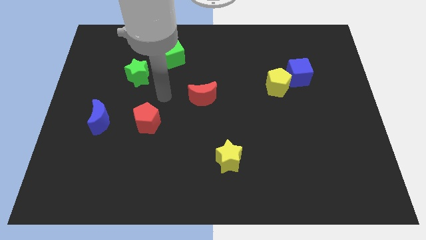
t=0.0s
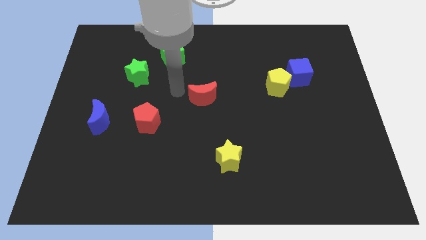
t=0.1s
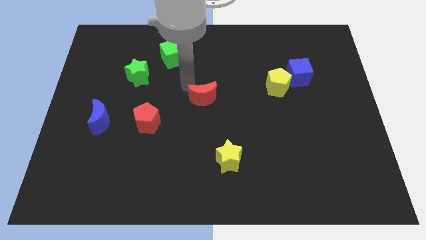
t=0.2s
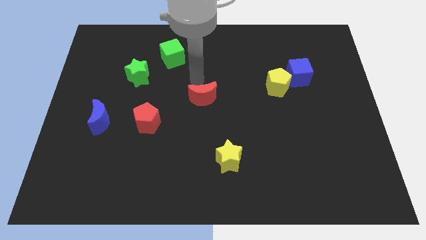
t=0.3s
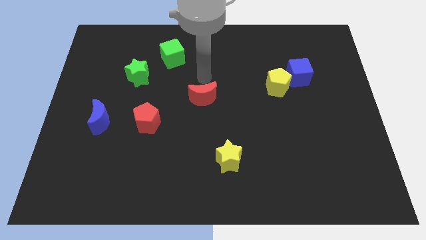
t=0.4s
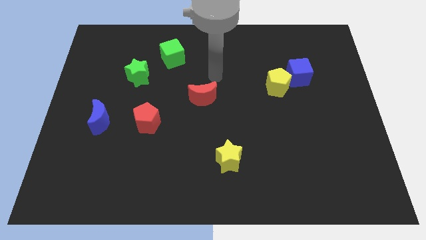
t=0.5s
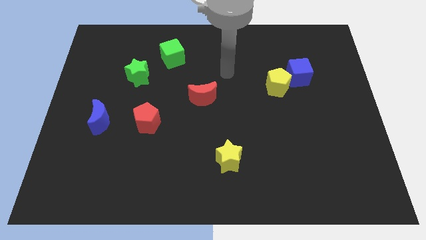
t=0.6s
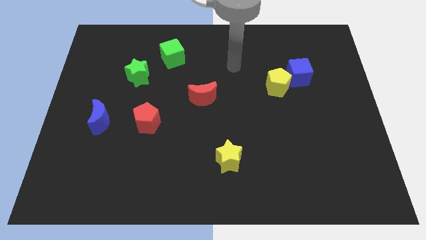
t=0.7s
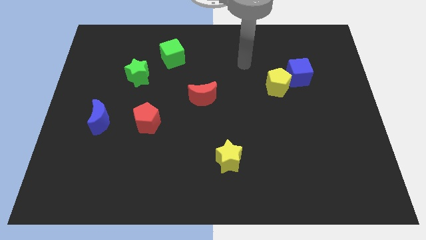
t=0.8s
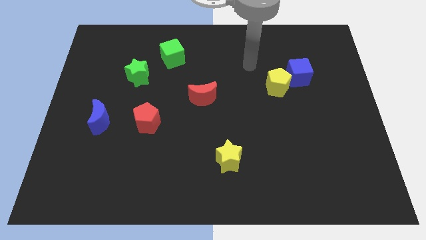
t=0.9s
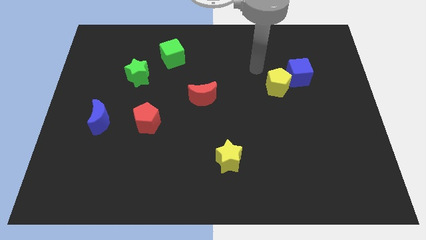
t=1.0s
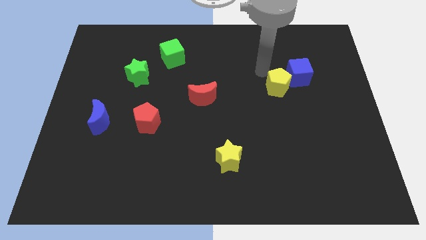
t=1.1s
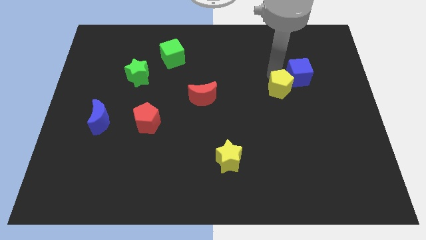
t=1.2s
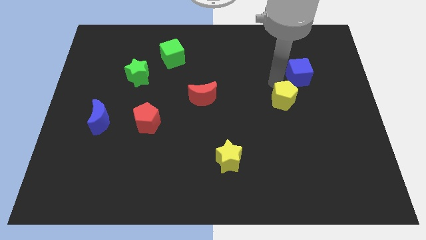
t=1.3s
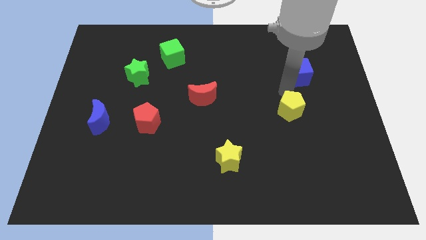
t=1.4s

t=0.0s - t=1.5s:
pull the blue cube apart from the yellow pentagon

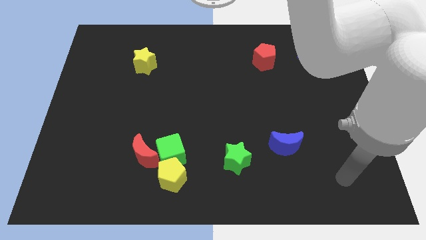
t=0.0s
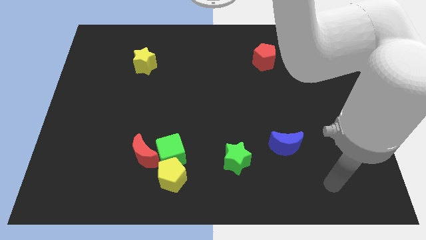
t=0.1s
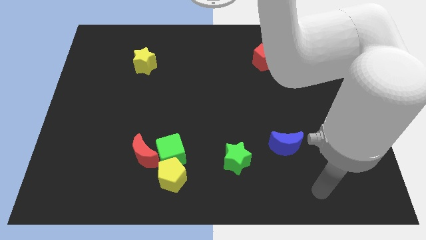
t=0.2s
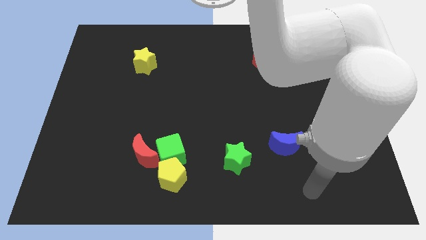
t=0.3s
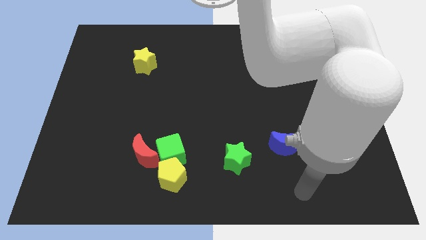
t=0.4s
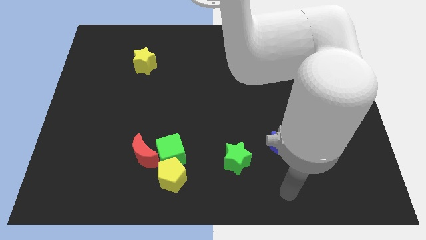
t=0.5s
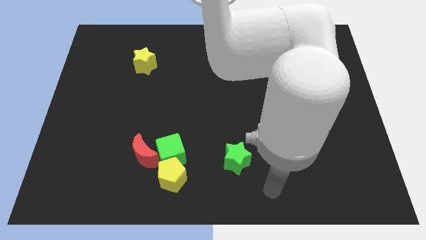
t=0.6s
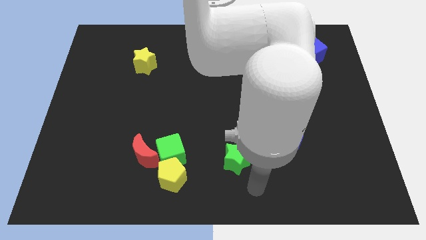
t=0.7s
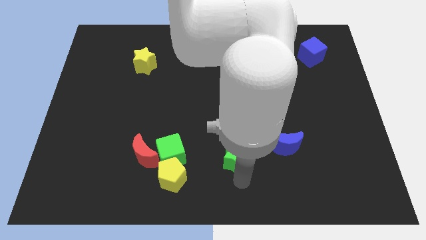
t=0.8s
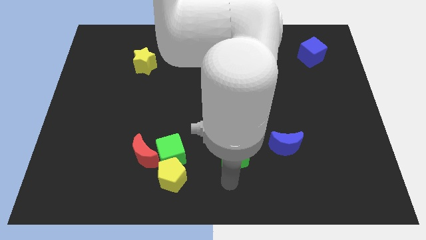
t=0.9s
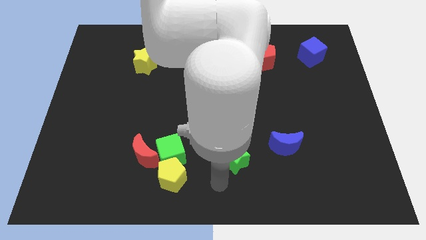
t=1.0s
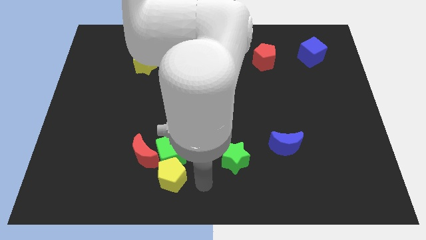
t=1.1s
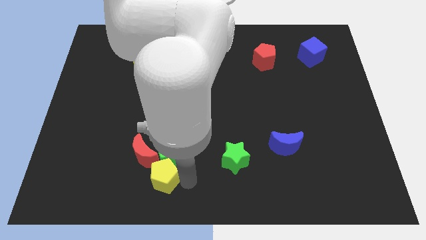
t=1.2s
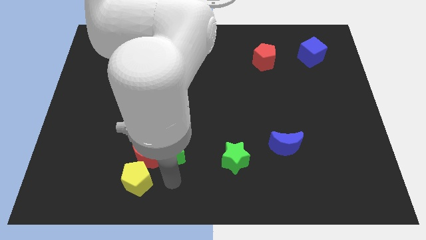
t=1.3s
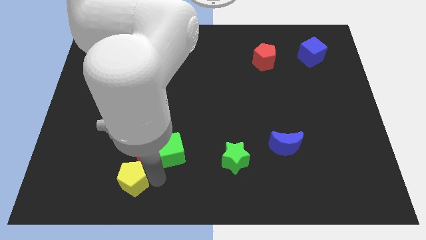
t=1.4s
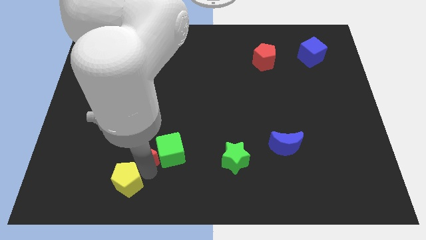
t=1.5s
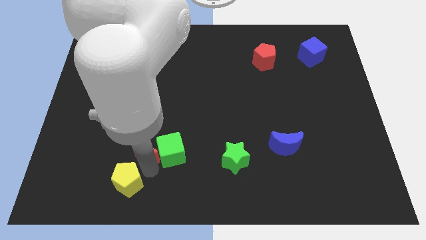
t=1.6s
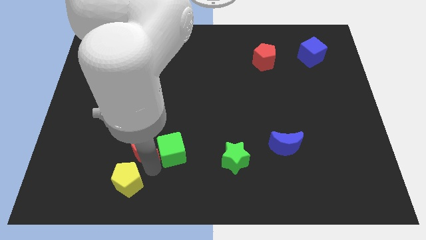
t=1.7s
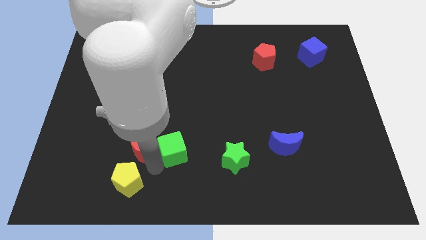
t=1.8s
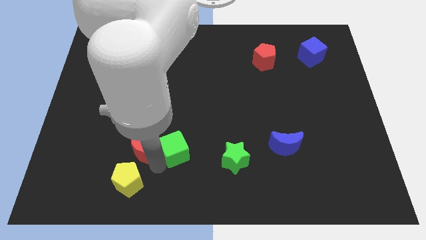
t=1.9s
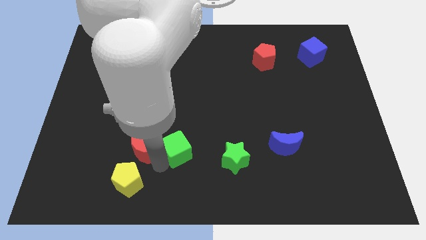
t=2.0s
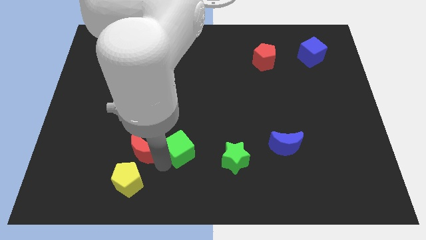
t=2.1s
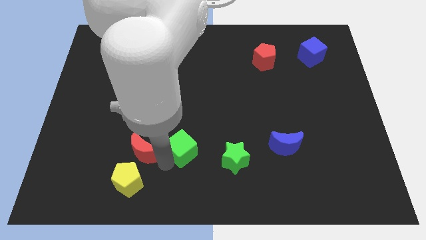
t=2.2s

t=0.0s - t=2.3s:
pull the green cube apart from the yellow pentagon and red moon

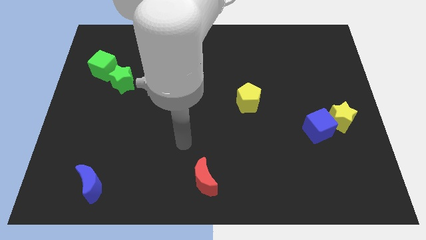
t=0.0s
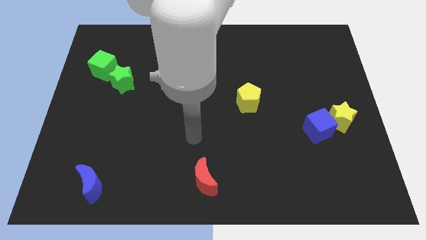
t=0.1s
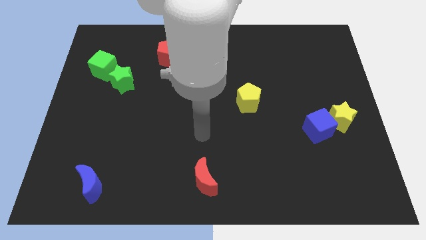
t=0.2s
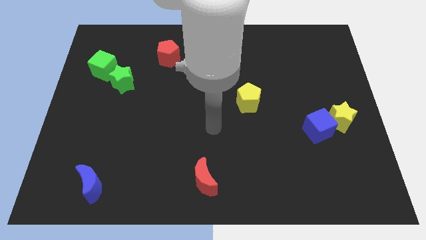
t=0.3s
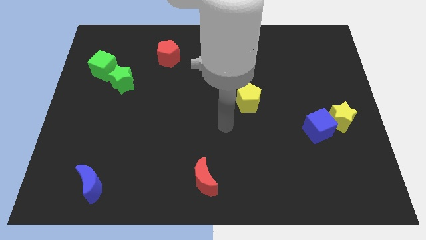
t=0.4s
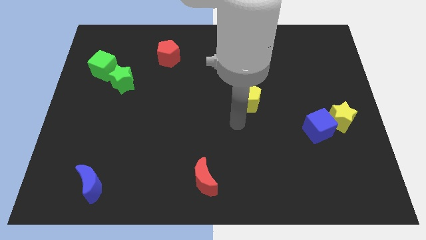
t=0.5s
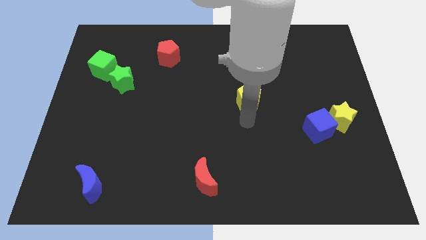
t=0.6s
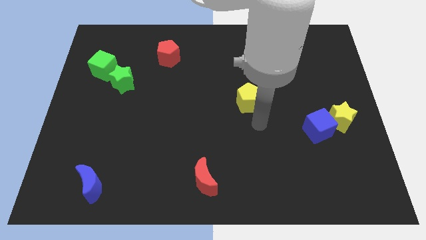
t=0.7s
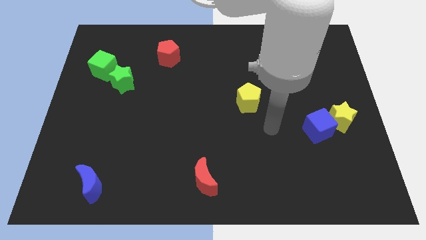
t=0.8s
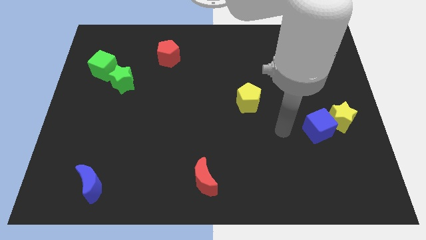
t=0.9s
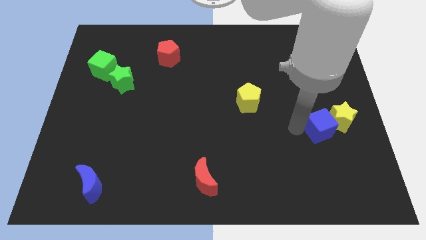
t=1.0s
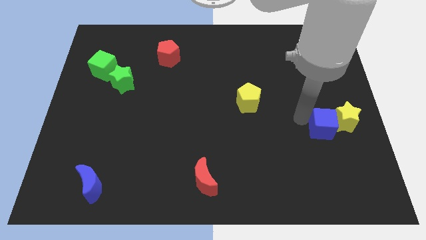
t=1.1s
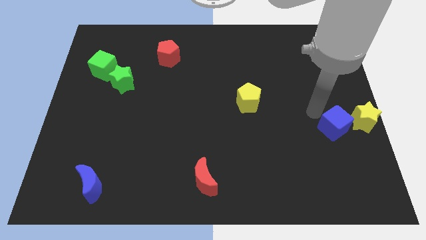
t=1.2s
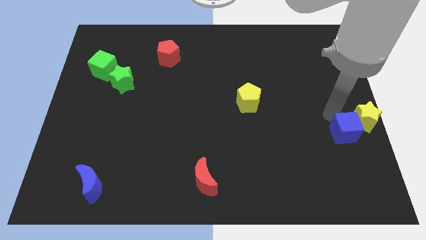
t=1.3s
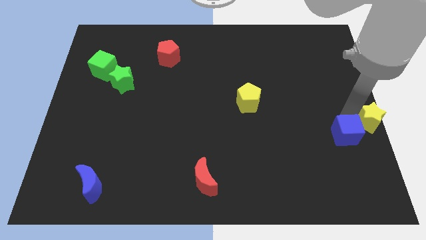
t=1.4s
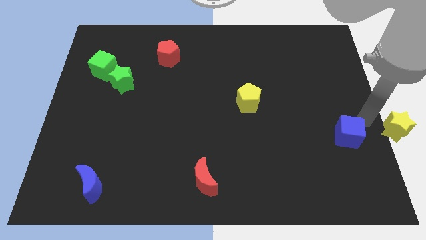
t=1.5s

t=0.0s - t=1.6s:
move the blue cube away from the yellow star

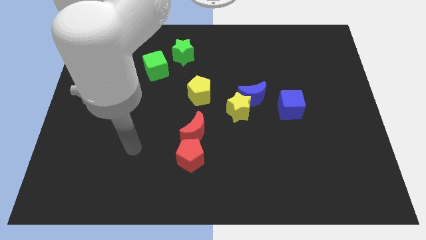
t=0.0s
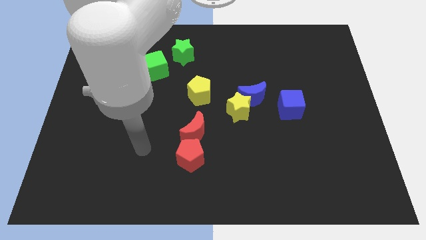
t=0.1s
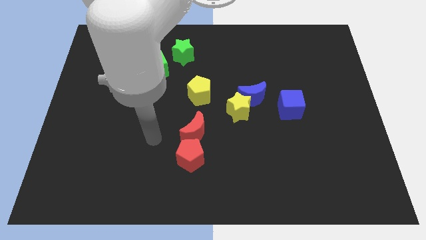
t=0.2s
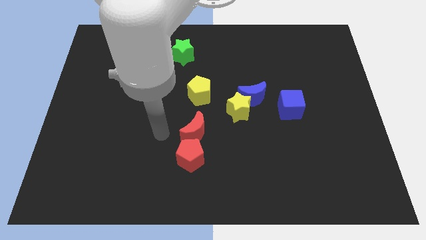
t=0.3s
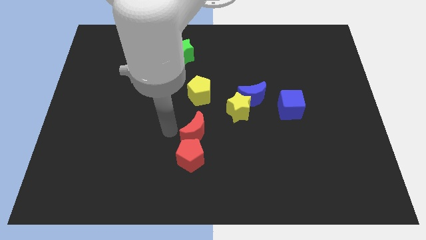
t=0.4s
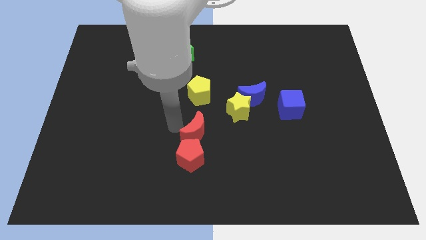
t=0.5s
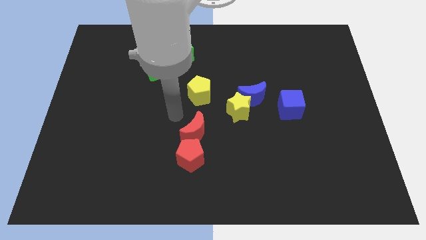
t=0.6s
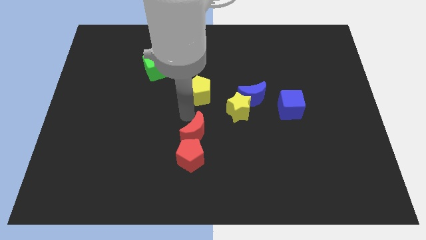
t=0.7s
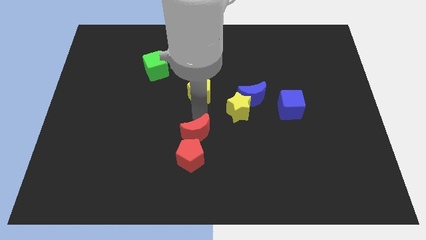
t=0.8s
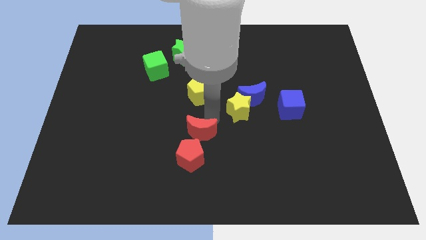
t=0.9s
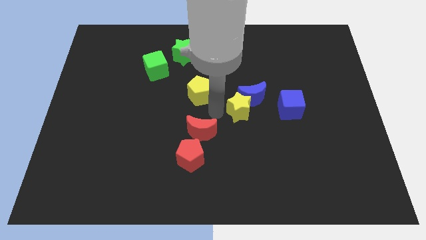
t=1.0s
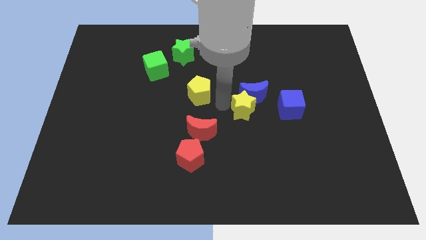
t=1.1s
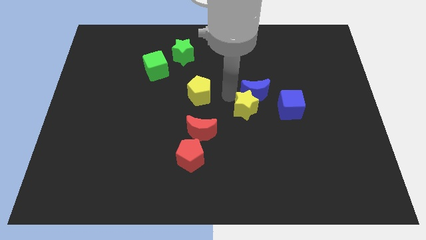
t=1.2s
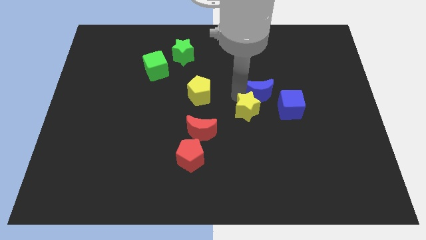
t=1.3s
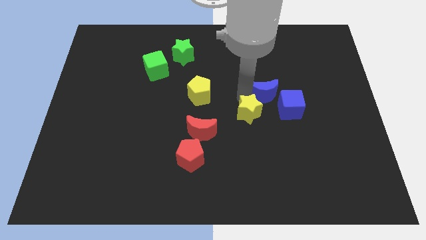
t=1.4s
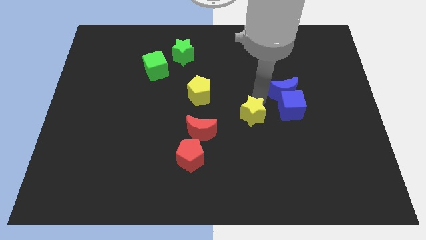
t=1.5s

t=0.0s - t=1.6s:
separate the yellow star from the blue moon

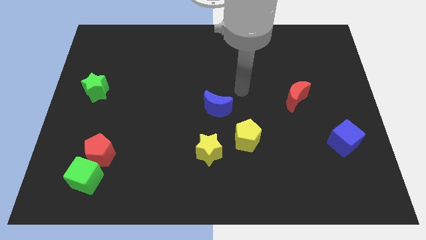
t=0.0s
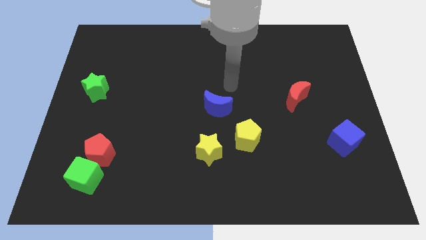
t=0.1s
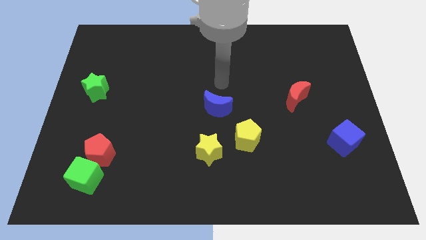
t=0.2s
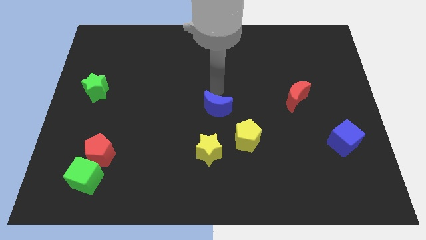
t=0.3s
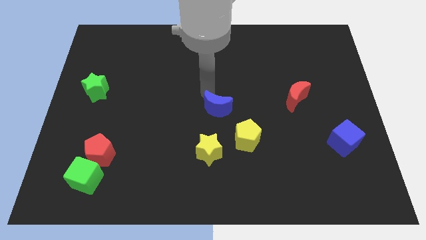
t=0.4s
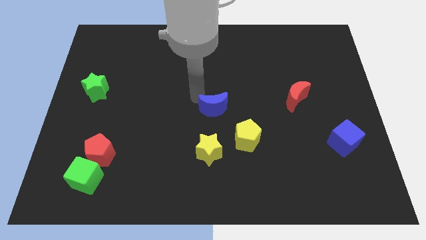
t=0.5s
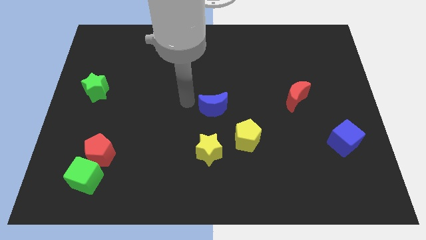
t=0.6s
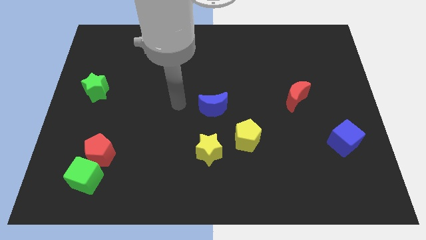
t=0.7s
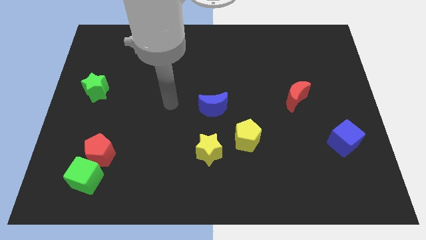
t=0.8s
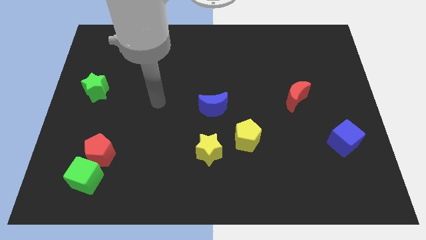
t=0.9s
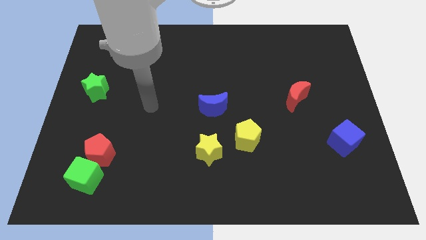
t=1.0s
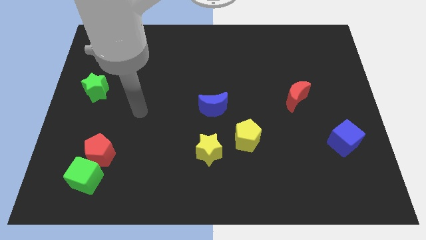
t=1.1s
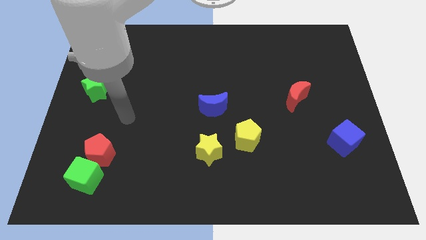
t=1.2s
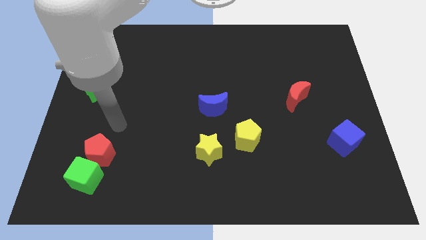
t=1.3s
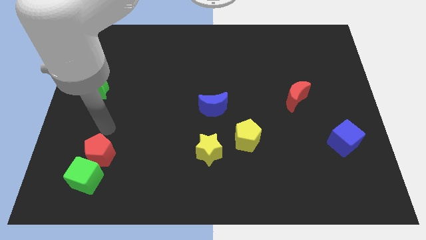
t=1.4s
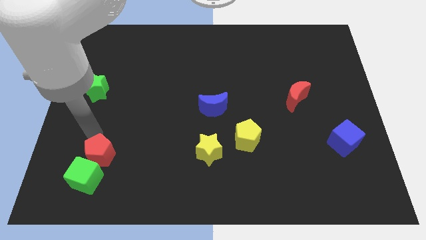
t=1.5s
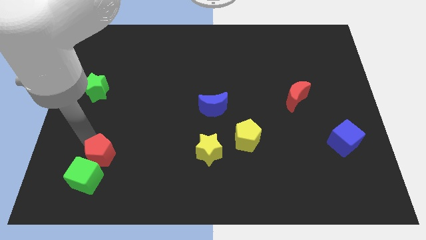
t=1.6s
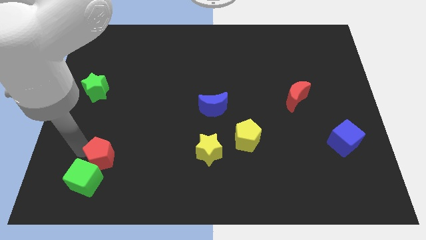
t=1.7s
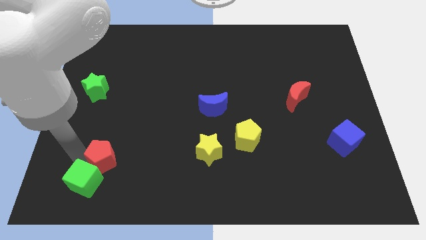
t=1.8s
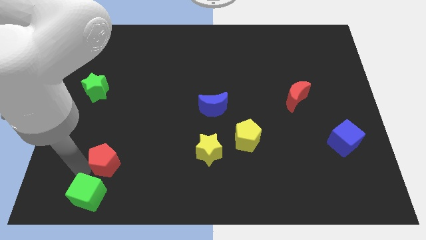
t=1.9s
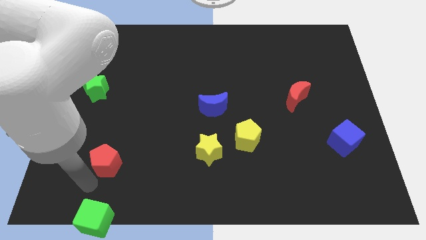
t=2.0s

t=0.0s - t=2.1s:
pull the red pentagon apart from the green cube

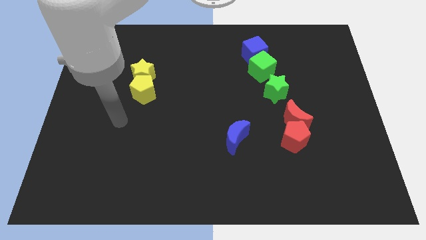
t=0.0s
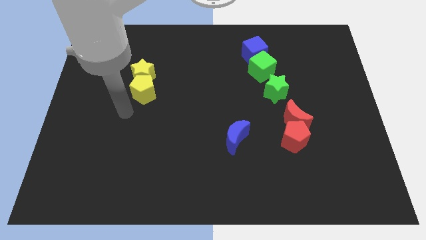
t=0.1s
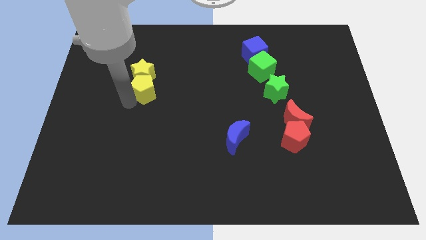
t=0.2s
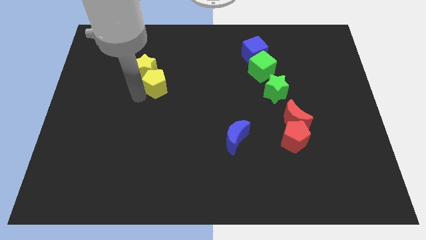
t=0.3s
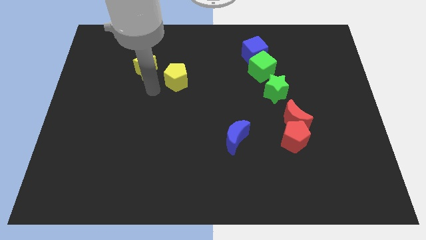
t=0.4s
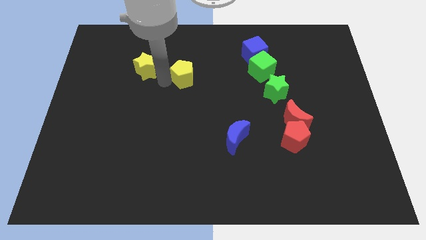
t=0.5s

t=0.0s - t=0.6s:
pull the yellow star apart from the yellow pentagon
